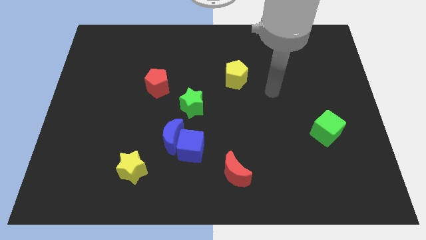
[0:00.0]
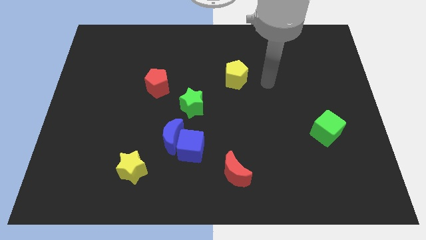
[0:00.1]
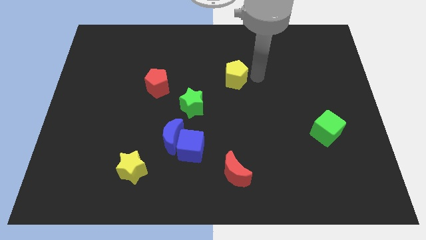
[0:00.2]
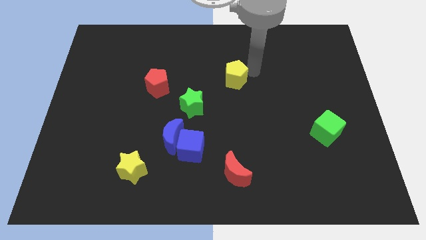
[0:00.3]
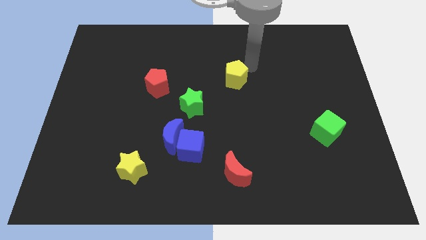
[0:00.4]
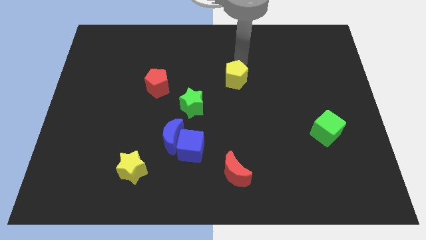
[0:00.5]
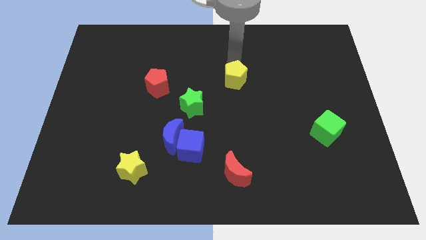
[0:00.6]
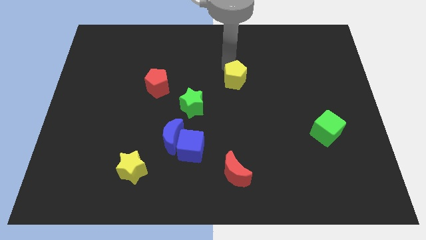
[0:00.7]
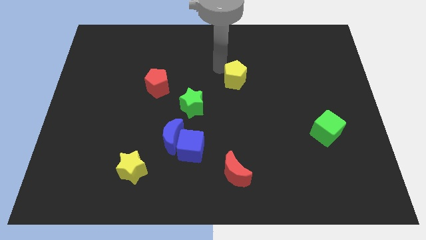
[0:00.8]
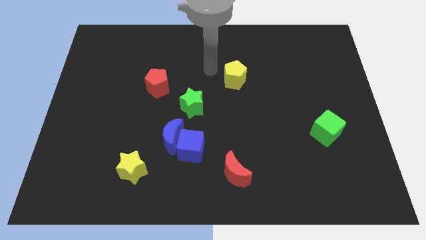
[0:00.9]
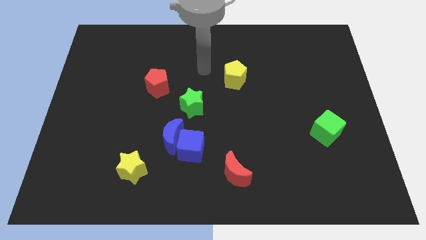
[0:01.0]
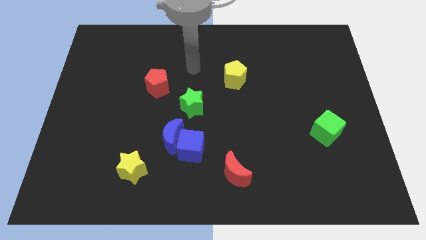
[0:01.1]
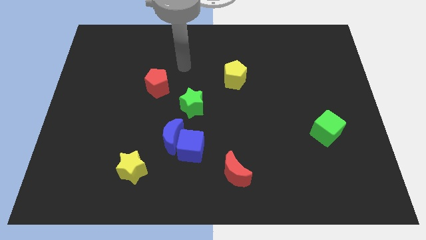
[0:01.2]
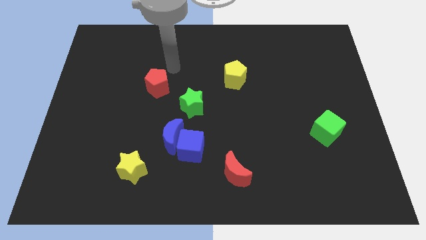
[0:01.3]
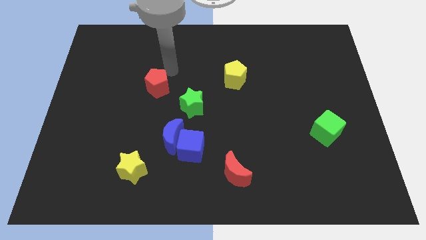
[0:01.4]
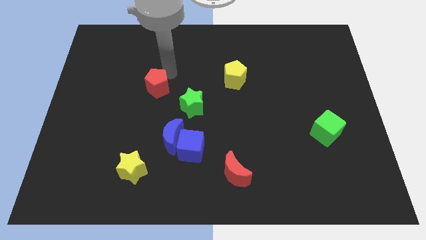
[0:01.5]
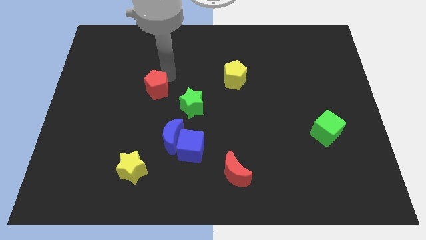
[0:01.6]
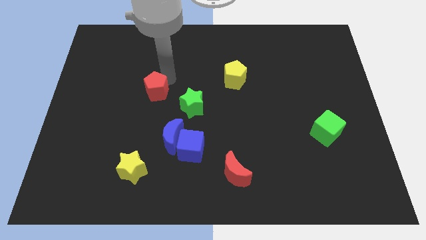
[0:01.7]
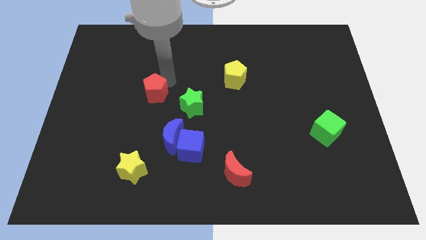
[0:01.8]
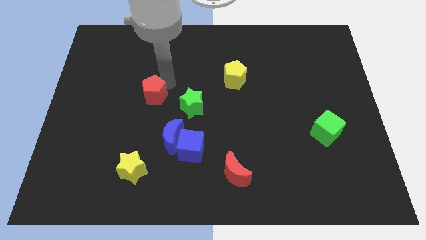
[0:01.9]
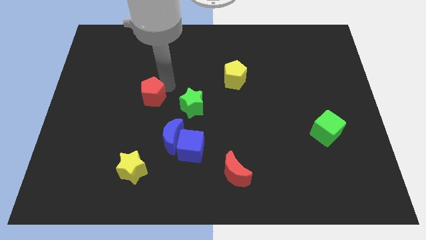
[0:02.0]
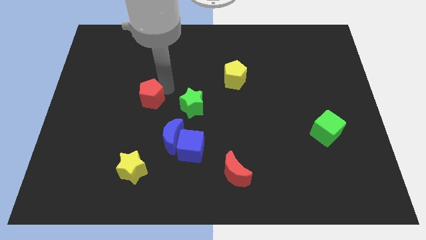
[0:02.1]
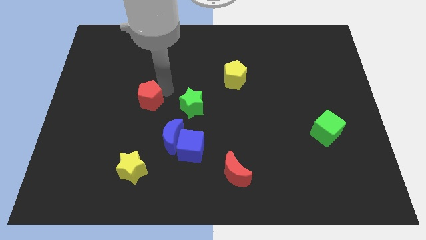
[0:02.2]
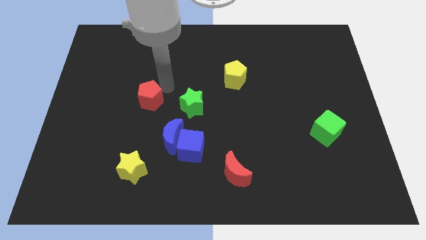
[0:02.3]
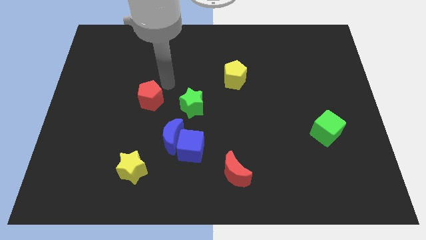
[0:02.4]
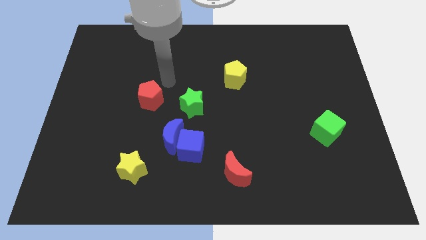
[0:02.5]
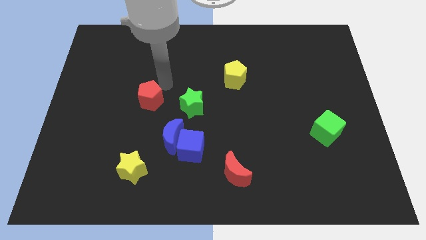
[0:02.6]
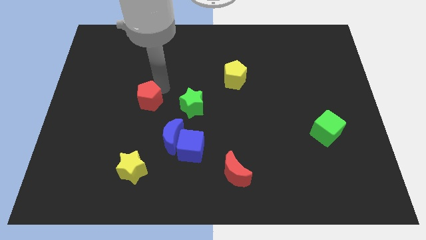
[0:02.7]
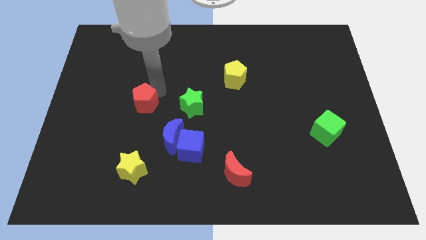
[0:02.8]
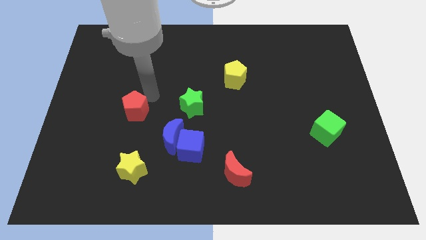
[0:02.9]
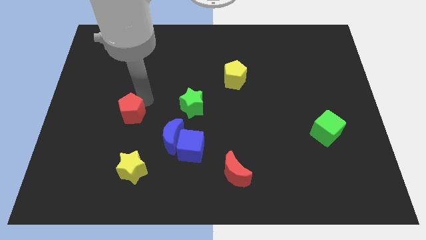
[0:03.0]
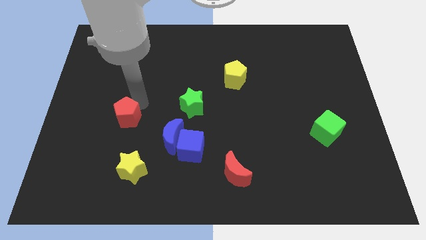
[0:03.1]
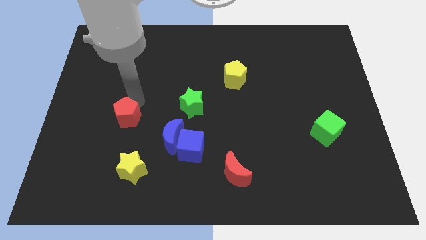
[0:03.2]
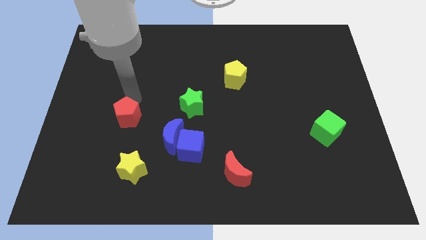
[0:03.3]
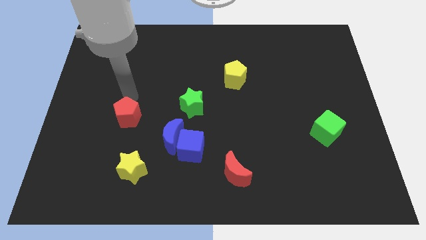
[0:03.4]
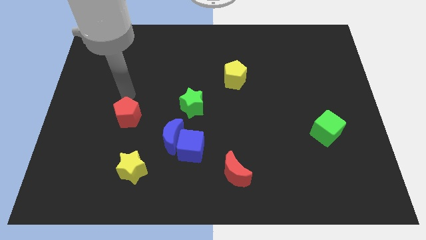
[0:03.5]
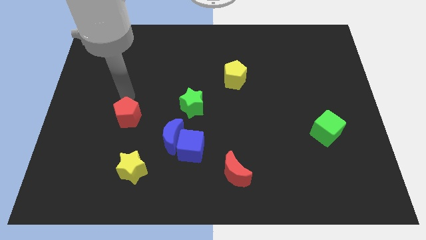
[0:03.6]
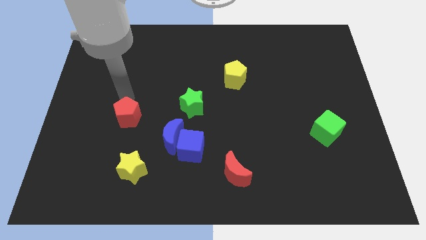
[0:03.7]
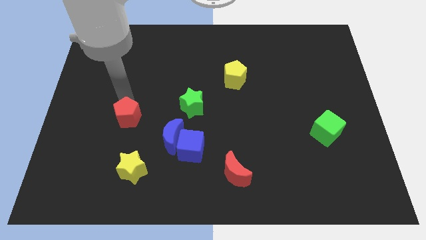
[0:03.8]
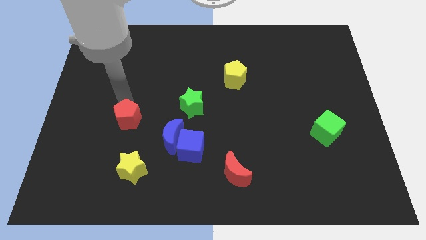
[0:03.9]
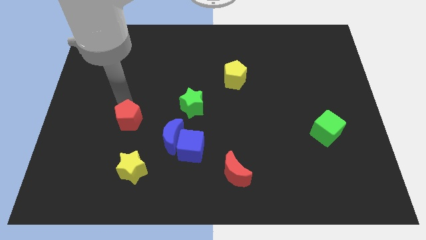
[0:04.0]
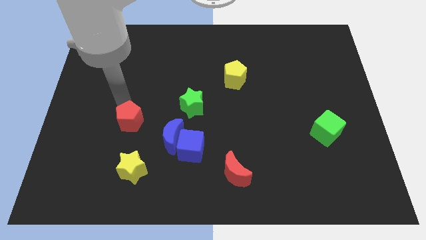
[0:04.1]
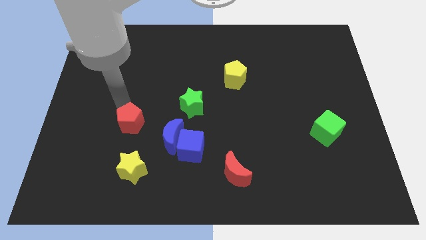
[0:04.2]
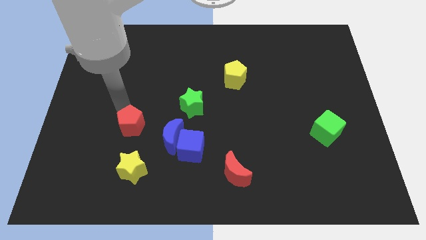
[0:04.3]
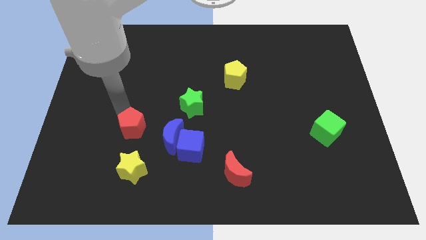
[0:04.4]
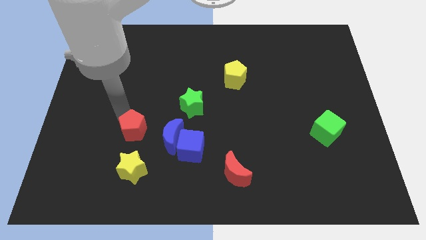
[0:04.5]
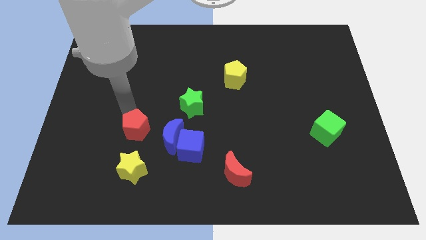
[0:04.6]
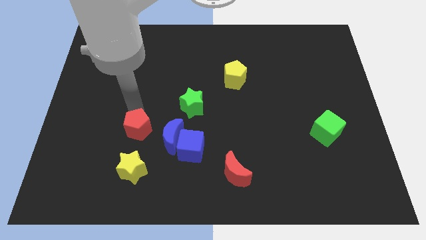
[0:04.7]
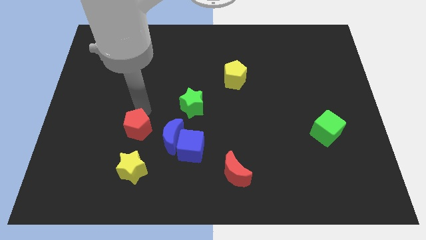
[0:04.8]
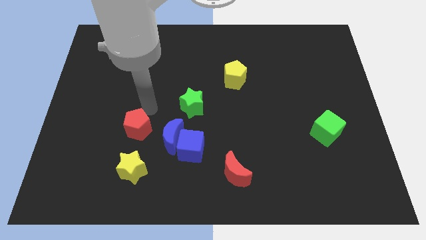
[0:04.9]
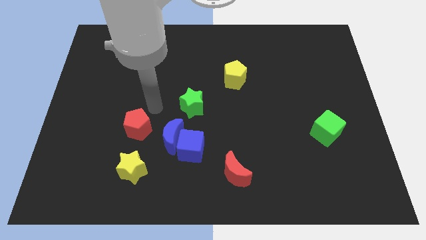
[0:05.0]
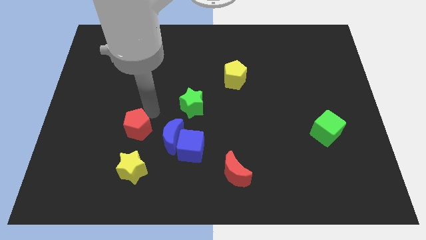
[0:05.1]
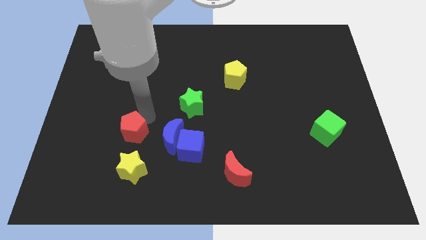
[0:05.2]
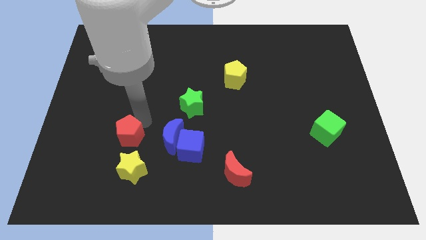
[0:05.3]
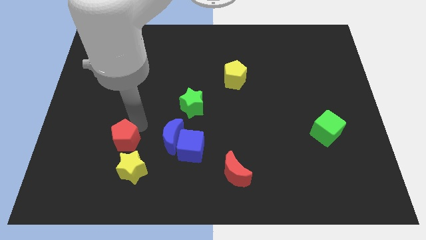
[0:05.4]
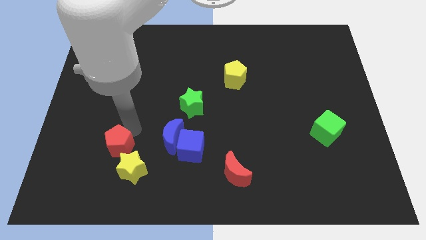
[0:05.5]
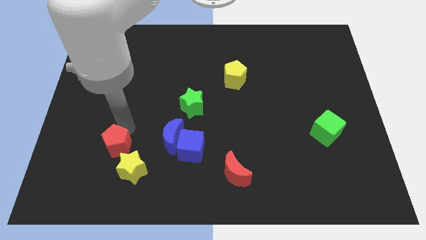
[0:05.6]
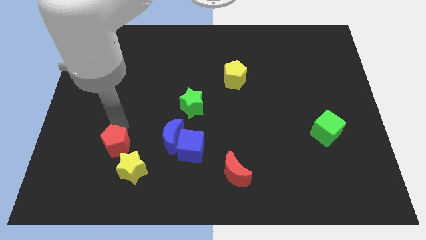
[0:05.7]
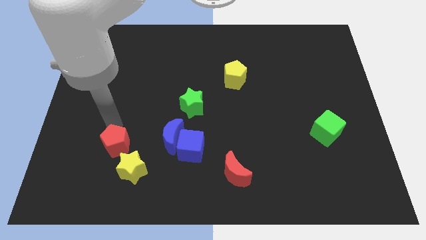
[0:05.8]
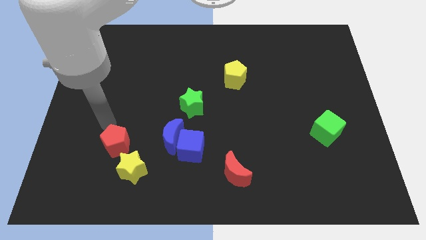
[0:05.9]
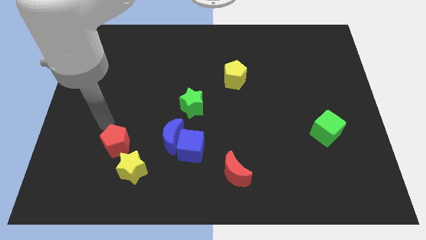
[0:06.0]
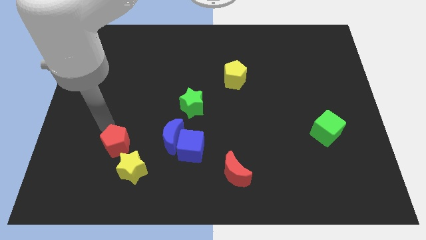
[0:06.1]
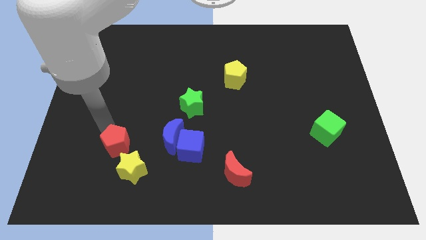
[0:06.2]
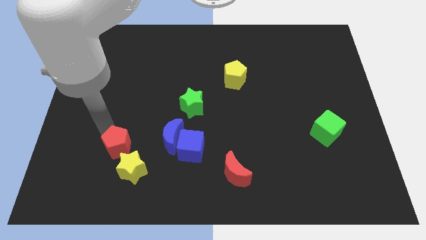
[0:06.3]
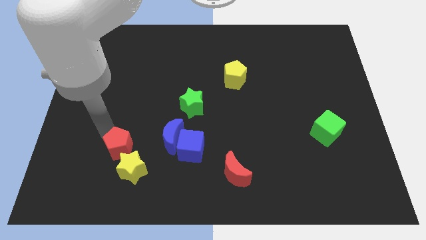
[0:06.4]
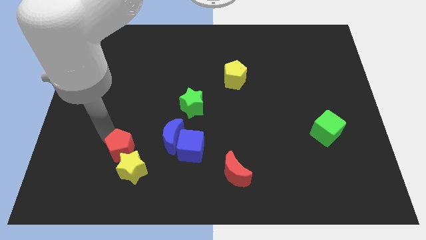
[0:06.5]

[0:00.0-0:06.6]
put the red pentagon towards the yellow star
